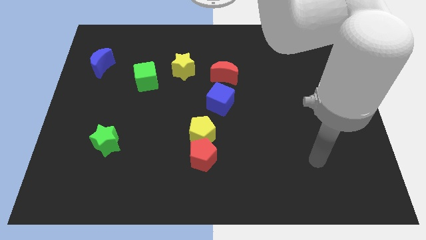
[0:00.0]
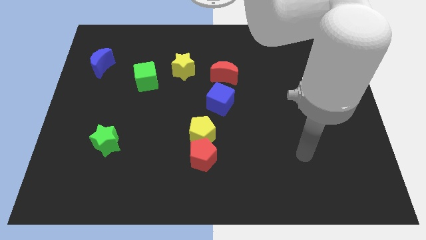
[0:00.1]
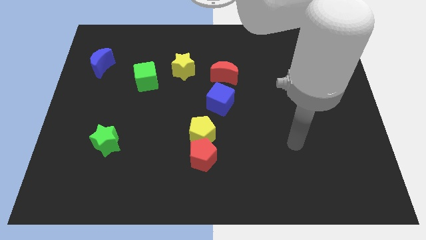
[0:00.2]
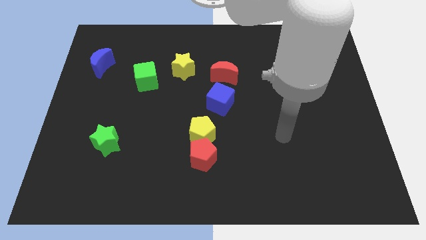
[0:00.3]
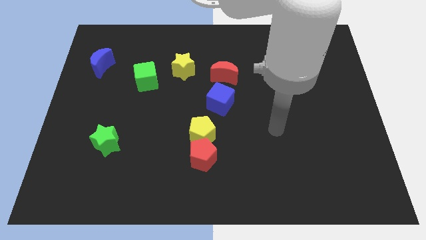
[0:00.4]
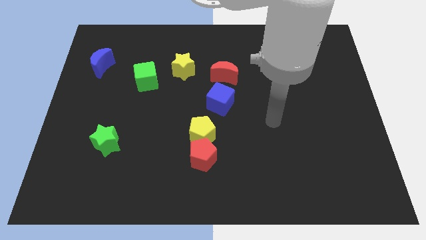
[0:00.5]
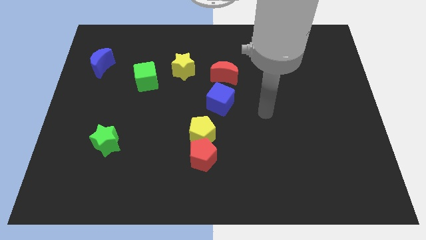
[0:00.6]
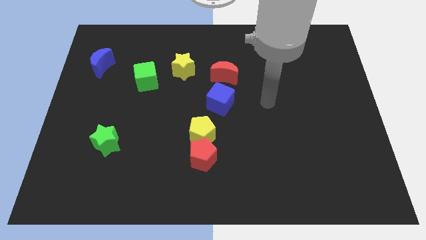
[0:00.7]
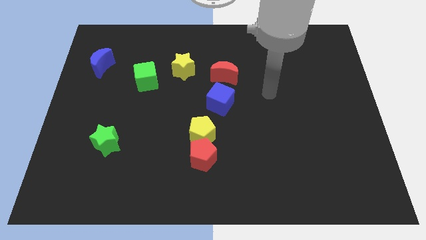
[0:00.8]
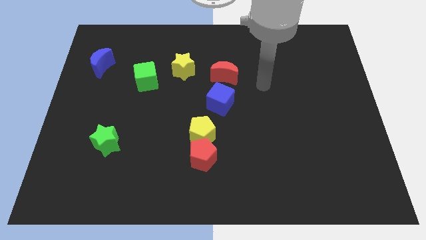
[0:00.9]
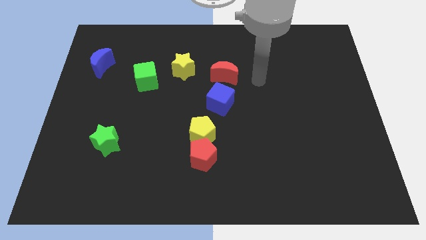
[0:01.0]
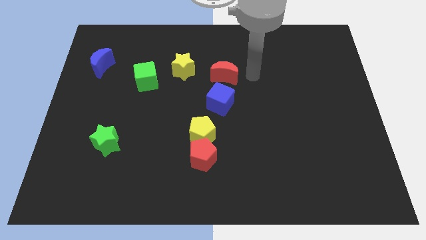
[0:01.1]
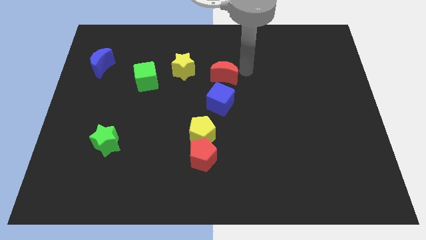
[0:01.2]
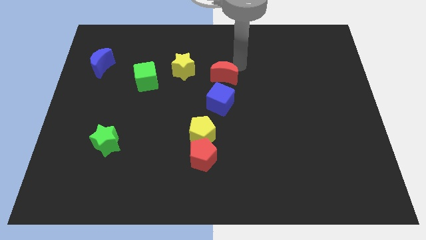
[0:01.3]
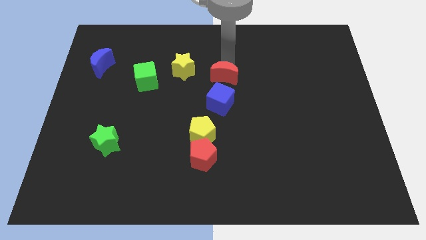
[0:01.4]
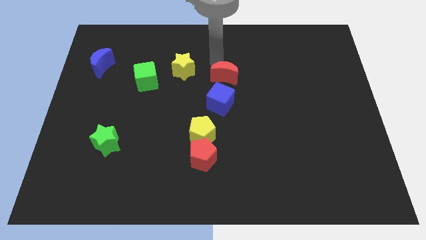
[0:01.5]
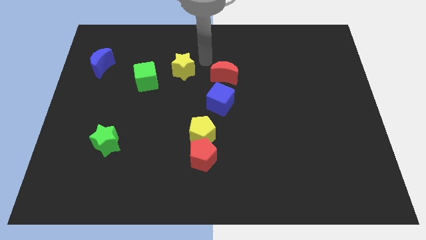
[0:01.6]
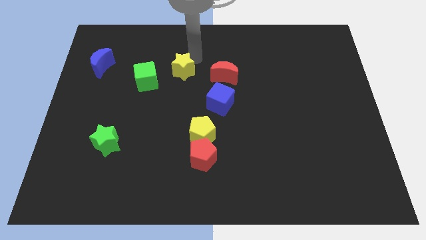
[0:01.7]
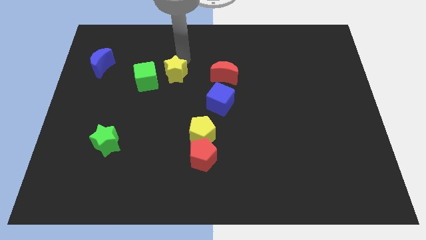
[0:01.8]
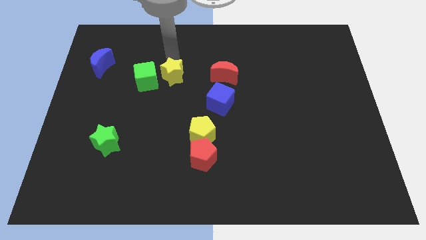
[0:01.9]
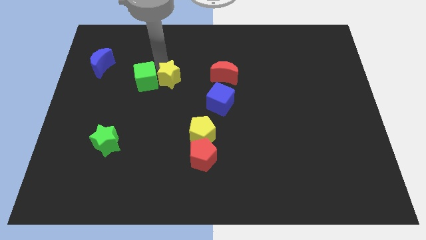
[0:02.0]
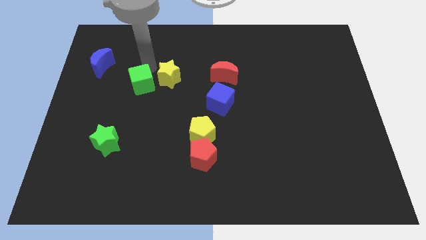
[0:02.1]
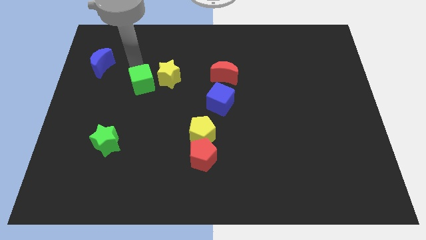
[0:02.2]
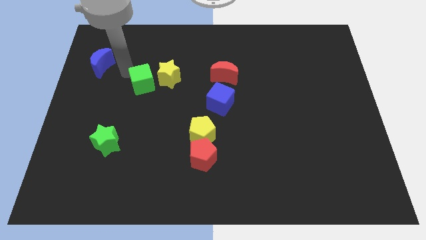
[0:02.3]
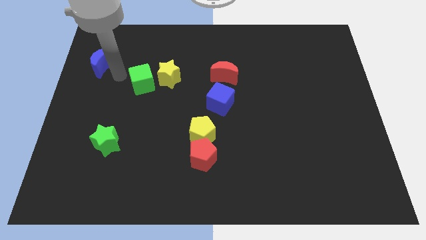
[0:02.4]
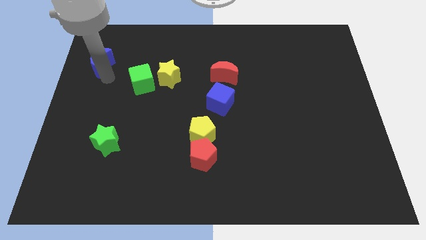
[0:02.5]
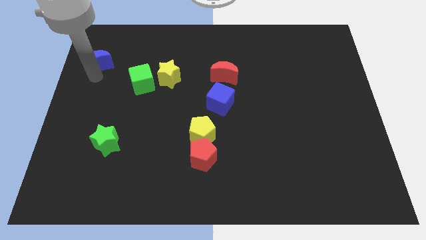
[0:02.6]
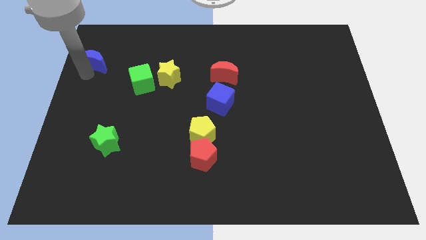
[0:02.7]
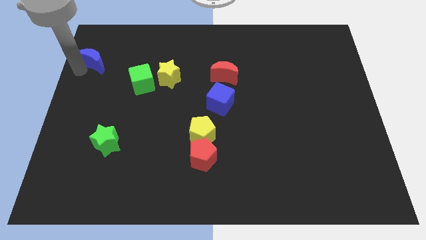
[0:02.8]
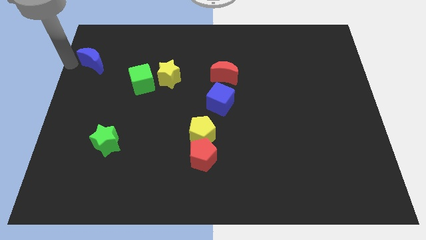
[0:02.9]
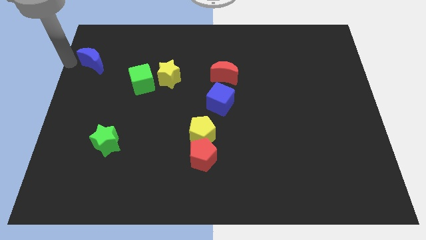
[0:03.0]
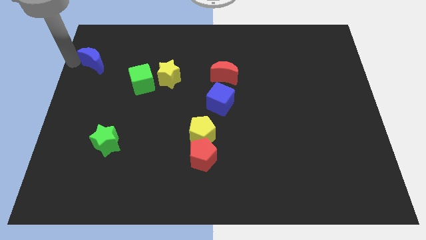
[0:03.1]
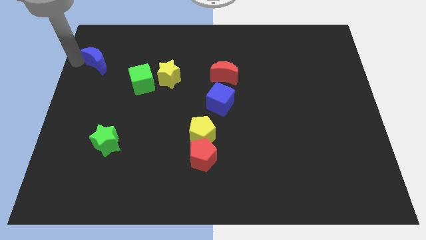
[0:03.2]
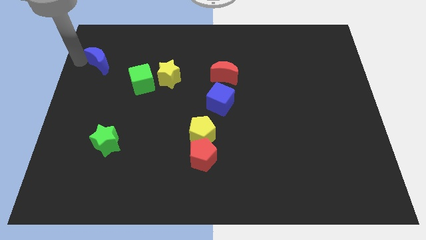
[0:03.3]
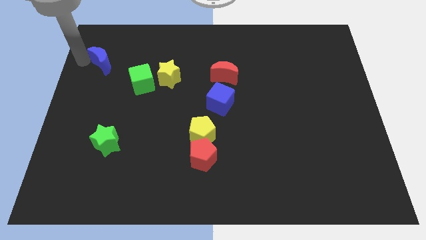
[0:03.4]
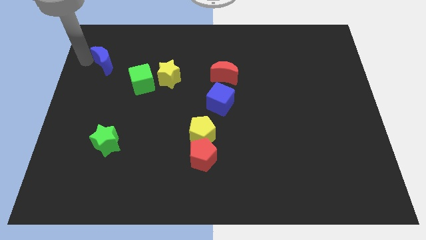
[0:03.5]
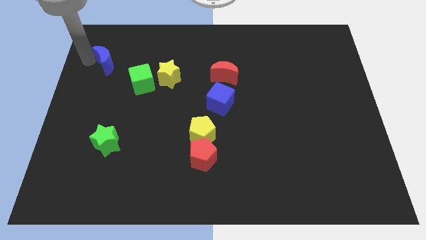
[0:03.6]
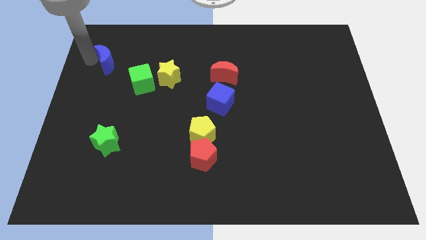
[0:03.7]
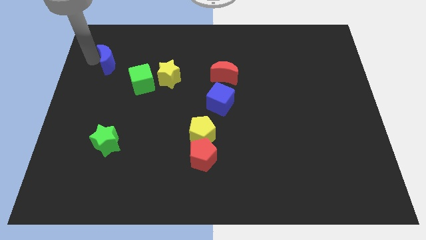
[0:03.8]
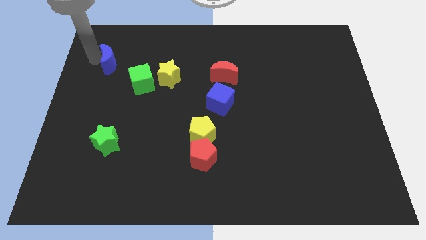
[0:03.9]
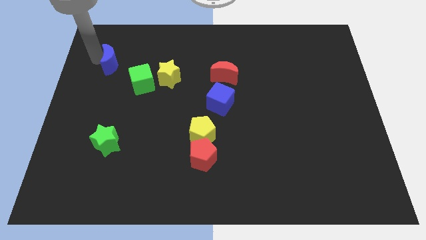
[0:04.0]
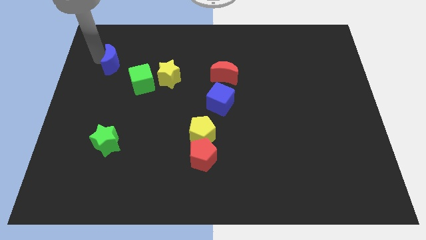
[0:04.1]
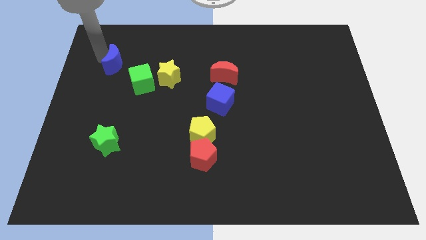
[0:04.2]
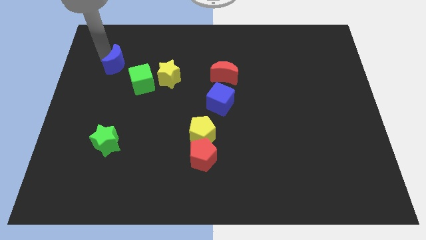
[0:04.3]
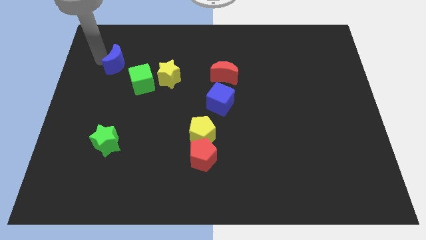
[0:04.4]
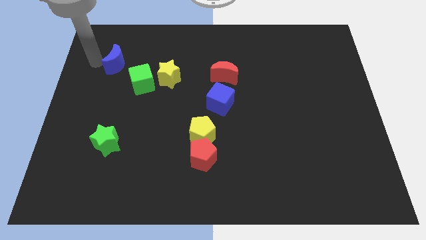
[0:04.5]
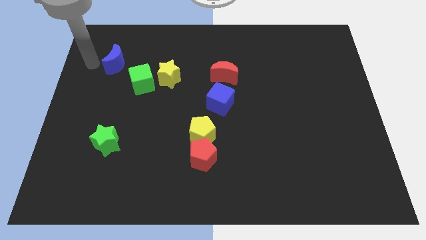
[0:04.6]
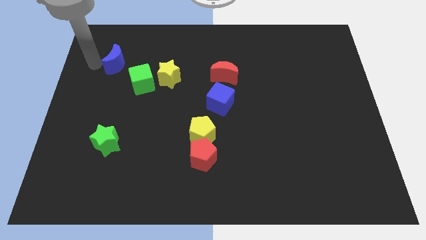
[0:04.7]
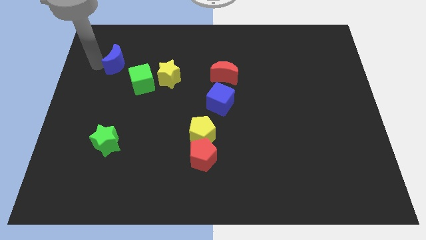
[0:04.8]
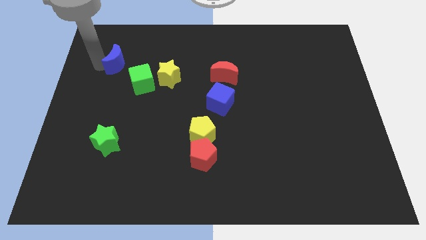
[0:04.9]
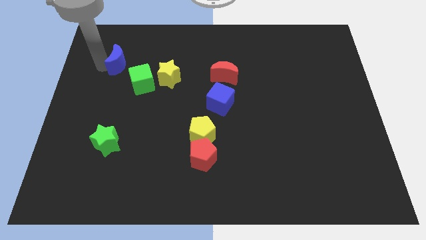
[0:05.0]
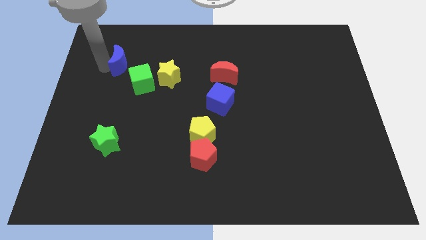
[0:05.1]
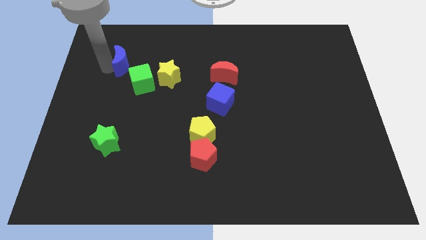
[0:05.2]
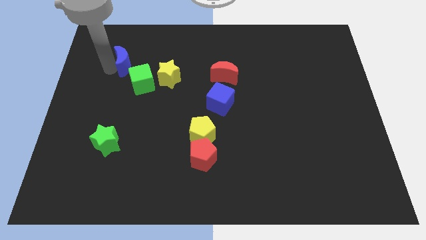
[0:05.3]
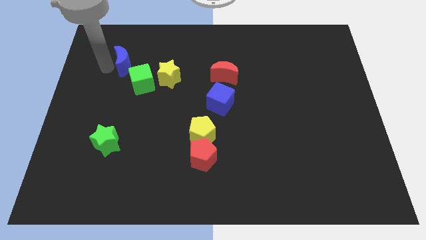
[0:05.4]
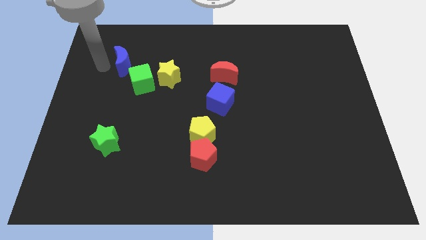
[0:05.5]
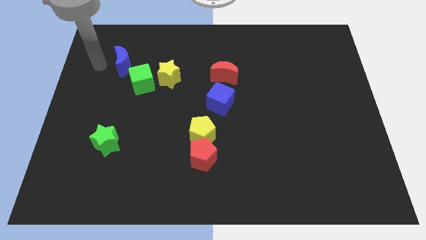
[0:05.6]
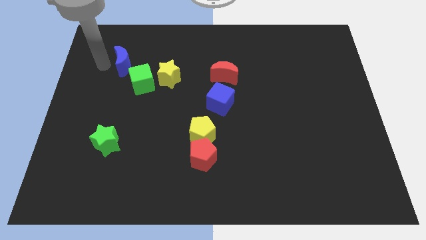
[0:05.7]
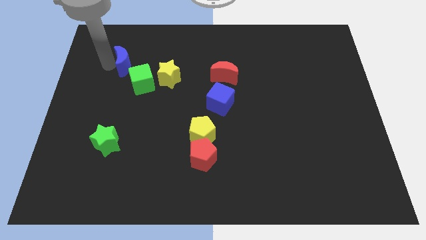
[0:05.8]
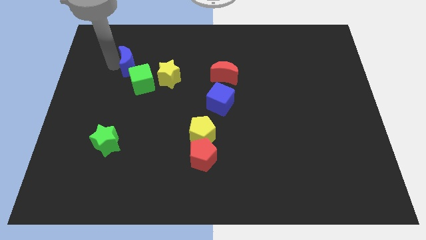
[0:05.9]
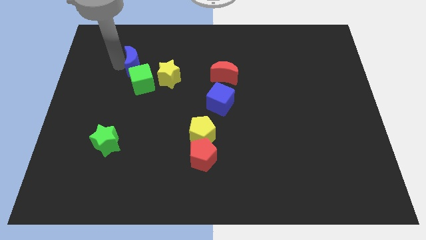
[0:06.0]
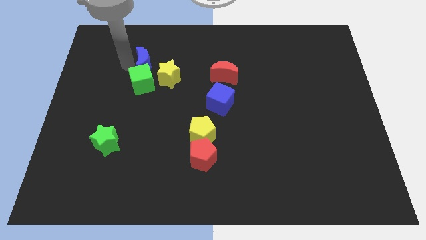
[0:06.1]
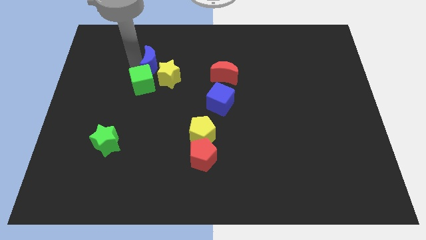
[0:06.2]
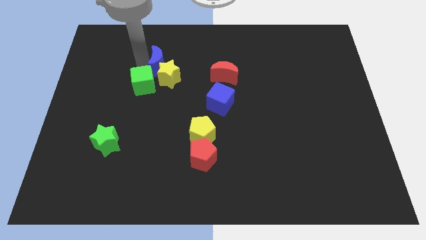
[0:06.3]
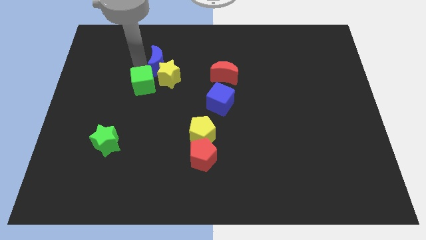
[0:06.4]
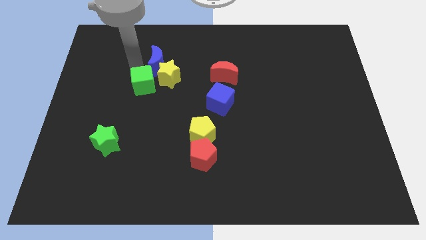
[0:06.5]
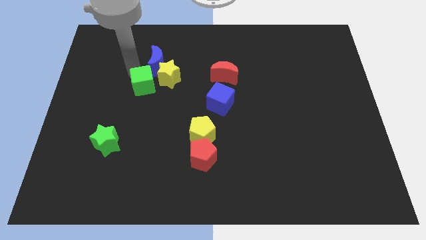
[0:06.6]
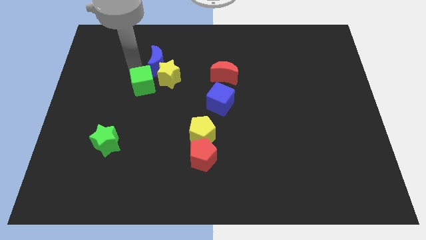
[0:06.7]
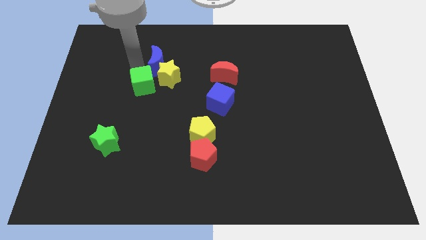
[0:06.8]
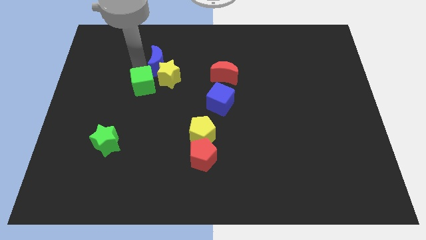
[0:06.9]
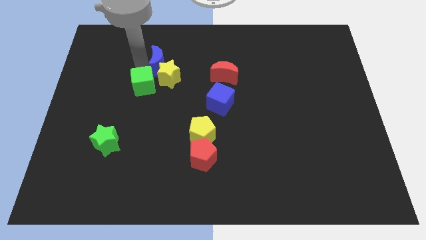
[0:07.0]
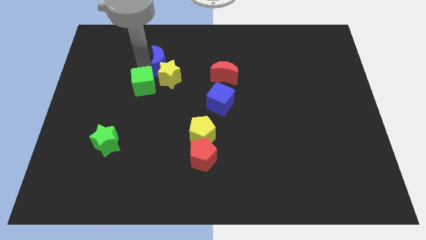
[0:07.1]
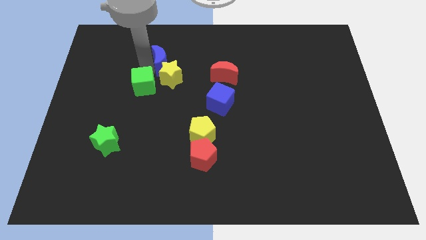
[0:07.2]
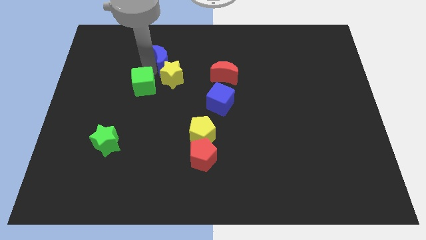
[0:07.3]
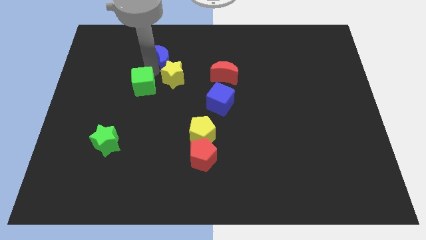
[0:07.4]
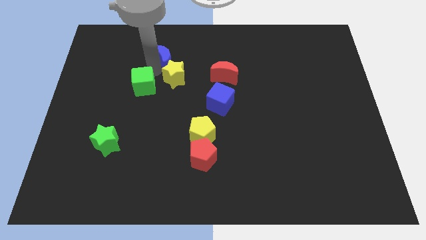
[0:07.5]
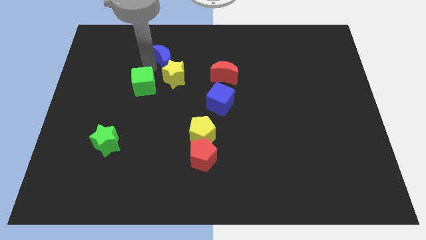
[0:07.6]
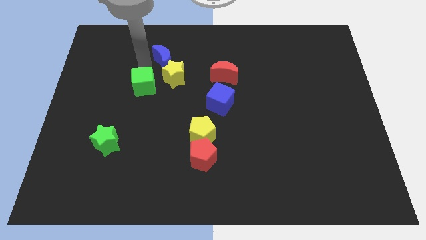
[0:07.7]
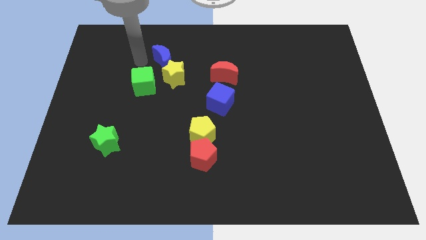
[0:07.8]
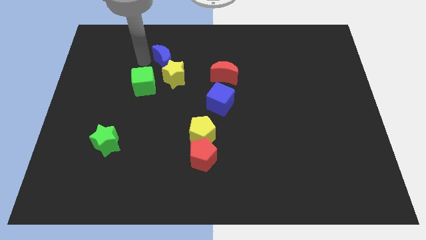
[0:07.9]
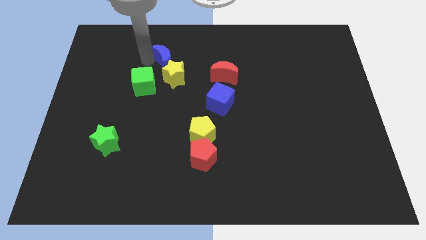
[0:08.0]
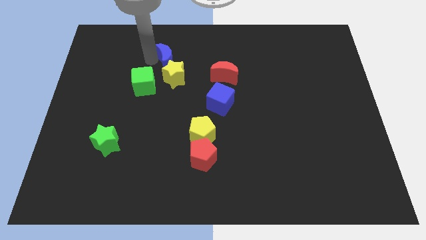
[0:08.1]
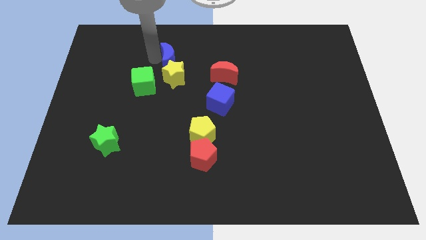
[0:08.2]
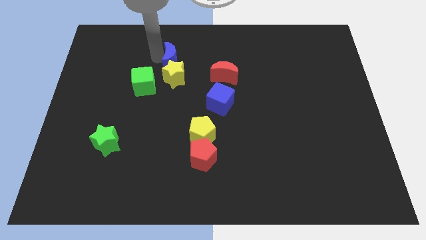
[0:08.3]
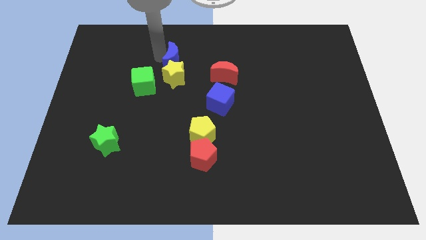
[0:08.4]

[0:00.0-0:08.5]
put the blue moon diagonally up and to the right of the yellow star
